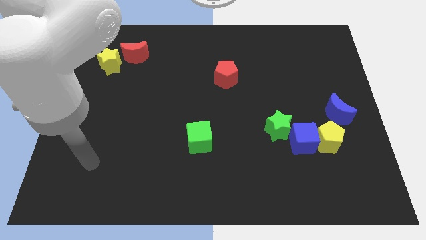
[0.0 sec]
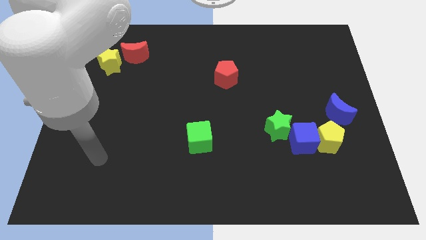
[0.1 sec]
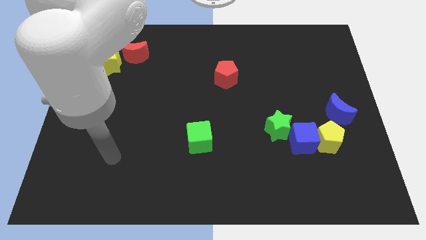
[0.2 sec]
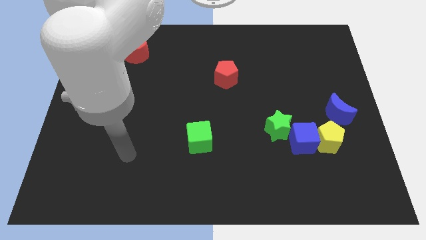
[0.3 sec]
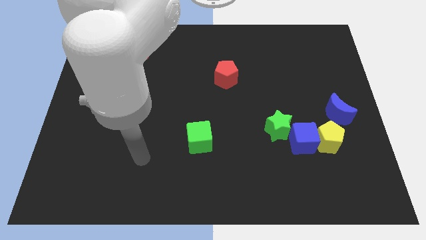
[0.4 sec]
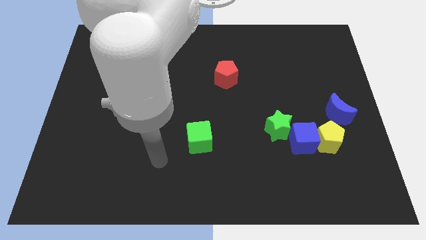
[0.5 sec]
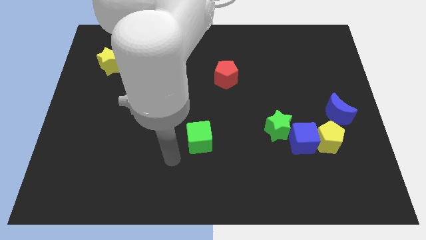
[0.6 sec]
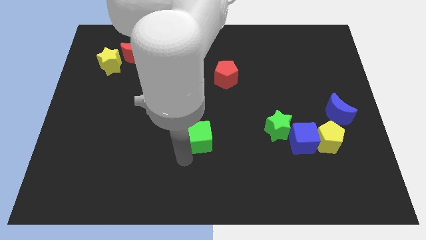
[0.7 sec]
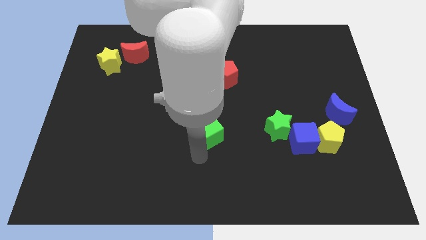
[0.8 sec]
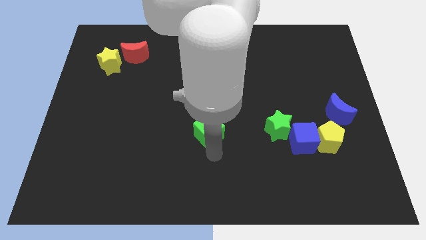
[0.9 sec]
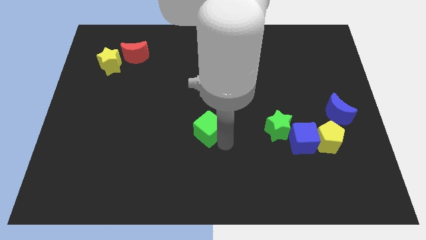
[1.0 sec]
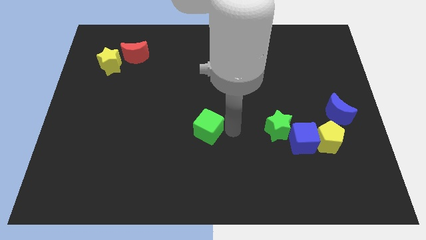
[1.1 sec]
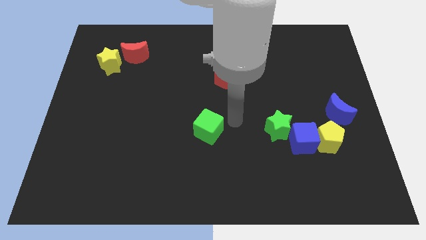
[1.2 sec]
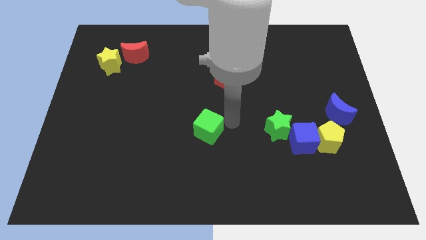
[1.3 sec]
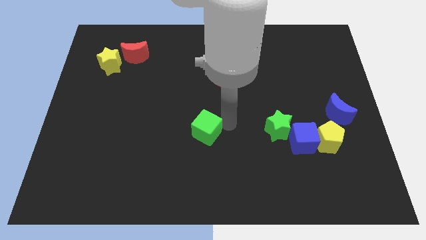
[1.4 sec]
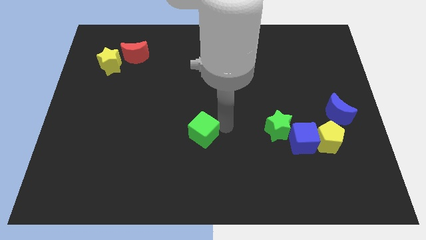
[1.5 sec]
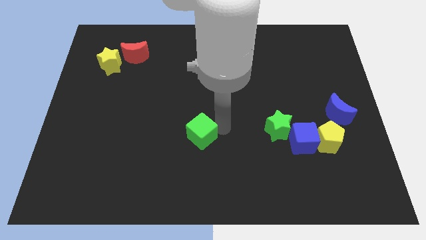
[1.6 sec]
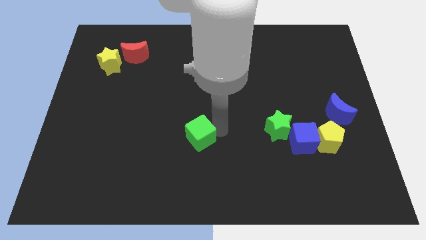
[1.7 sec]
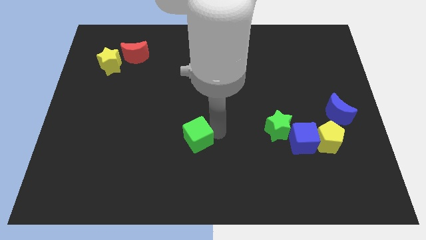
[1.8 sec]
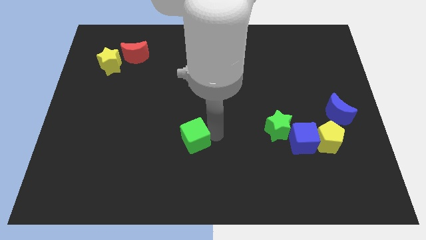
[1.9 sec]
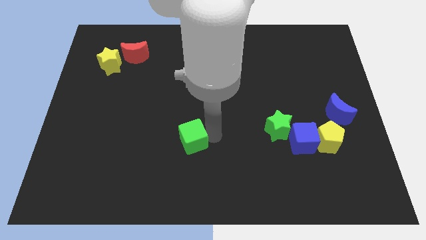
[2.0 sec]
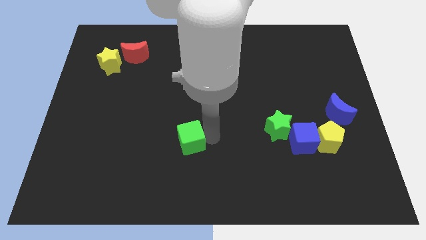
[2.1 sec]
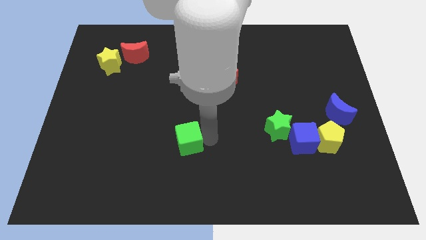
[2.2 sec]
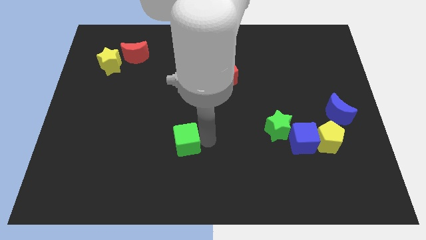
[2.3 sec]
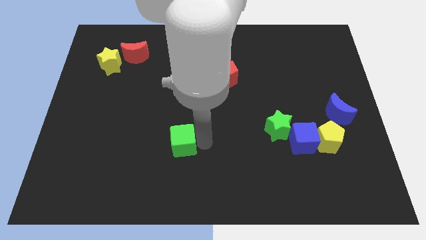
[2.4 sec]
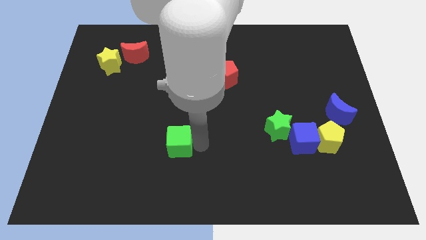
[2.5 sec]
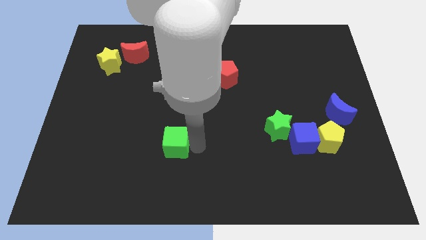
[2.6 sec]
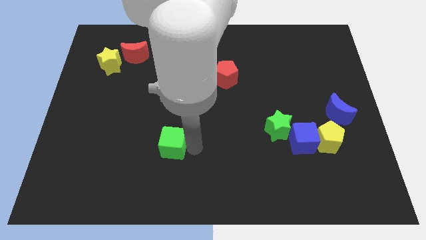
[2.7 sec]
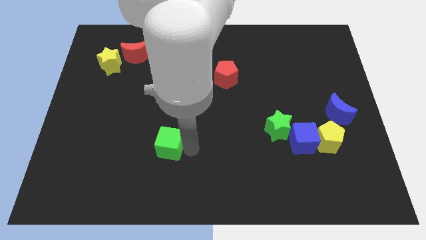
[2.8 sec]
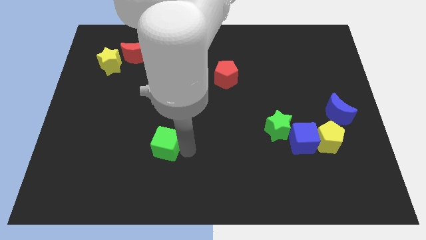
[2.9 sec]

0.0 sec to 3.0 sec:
slide the green cube a little left

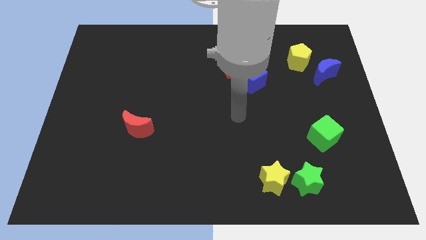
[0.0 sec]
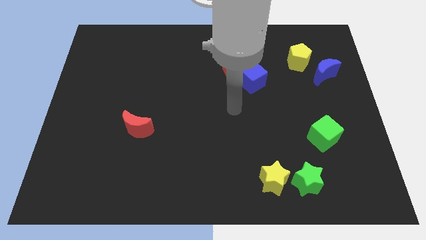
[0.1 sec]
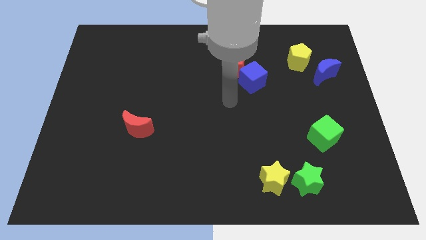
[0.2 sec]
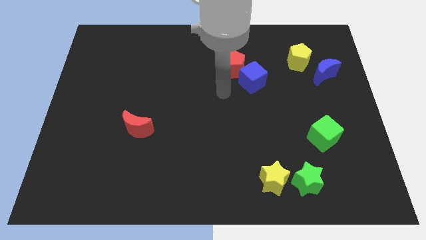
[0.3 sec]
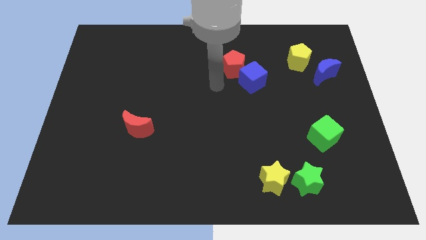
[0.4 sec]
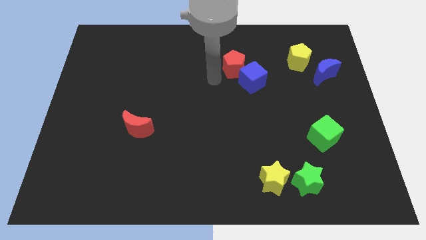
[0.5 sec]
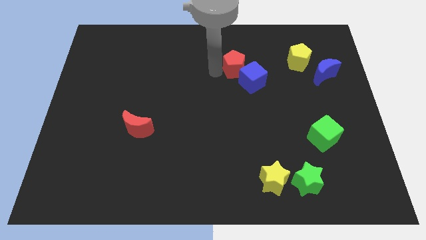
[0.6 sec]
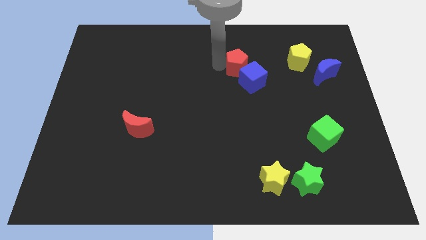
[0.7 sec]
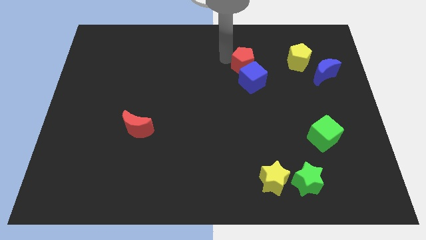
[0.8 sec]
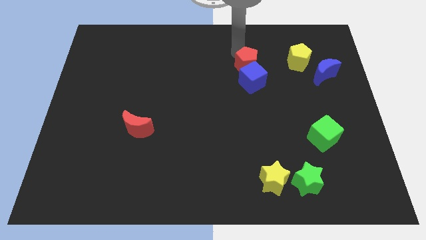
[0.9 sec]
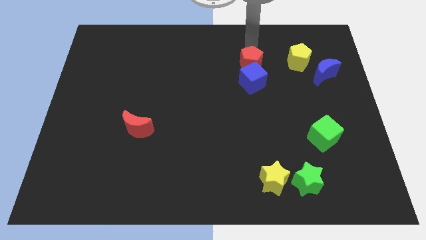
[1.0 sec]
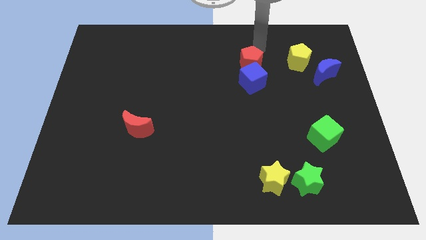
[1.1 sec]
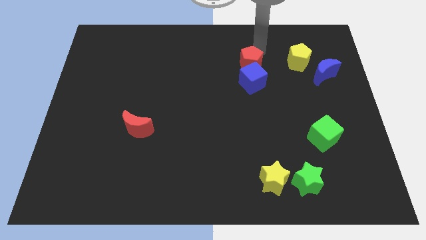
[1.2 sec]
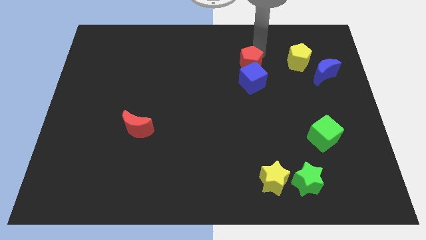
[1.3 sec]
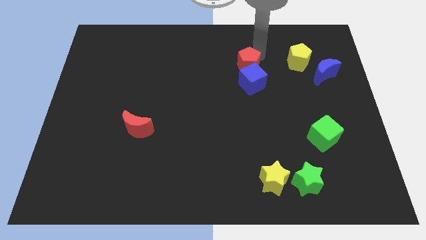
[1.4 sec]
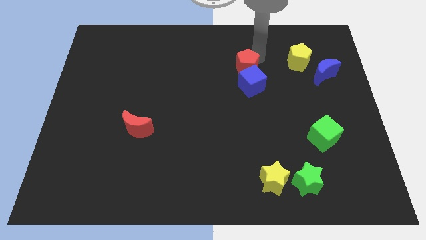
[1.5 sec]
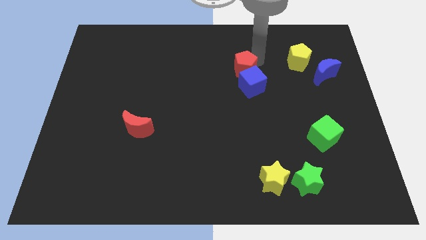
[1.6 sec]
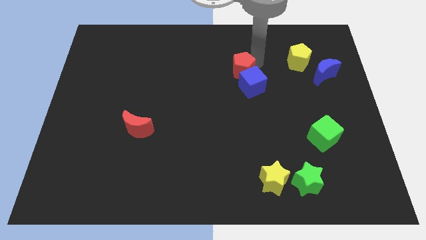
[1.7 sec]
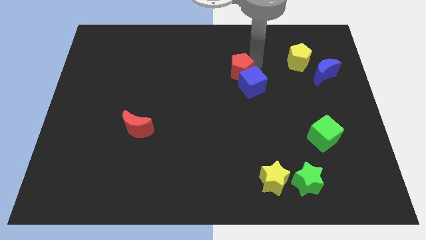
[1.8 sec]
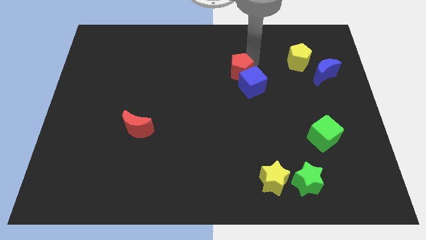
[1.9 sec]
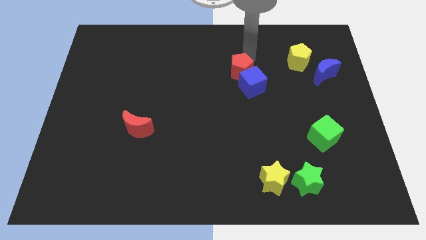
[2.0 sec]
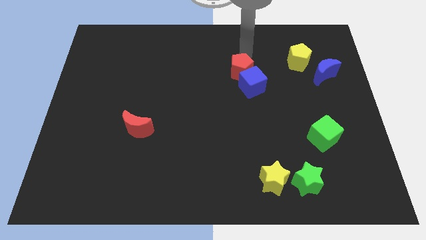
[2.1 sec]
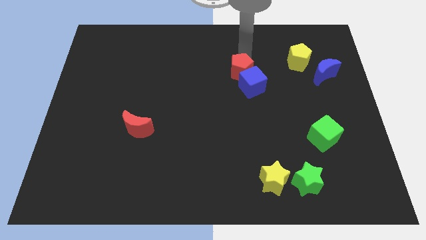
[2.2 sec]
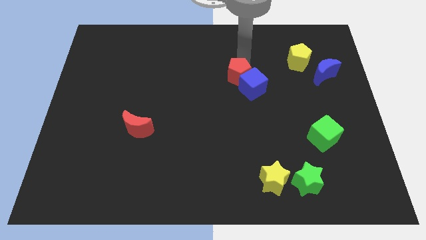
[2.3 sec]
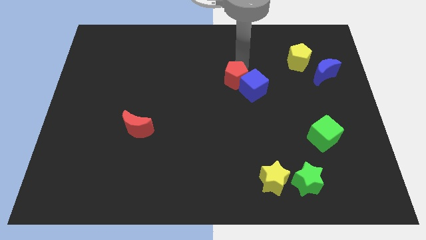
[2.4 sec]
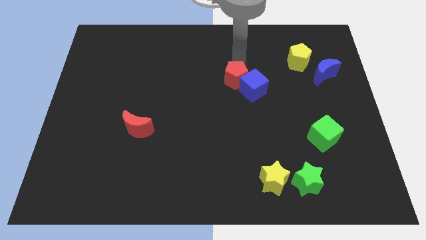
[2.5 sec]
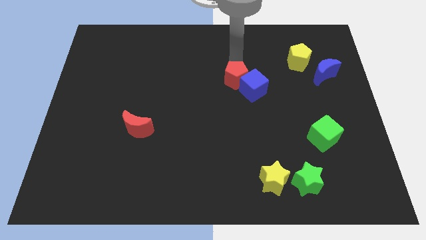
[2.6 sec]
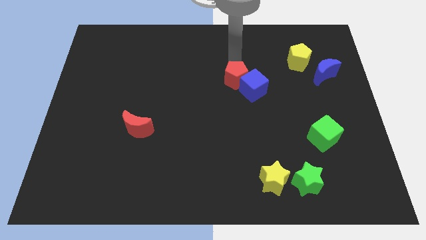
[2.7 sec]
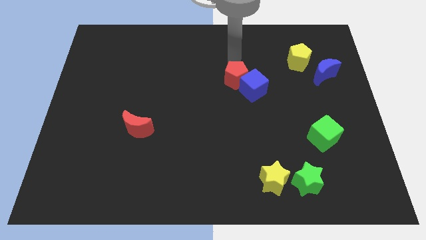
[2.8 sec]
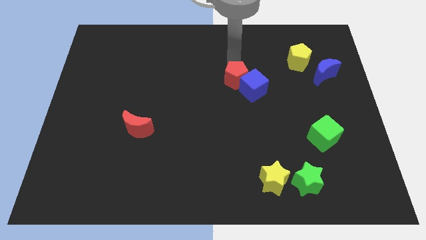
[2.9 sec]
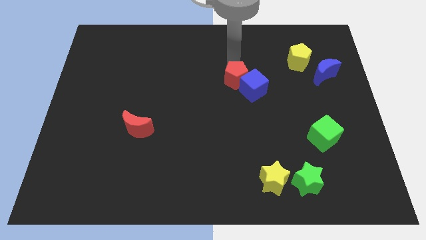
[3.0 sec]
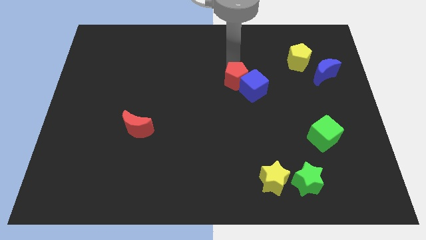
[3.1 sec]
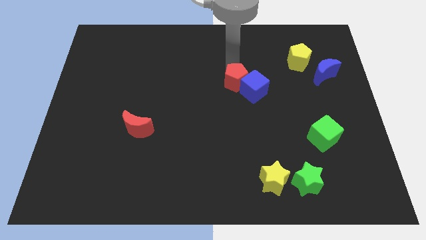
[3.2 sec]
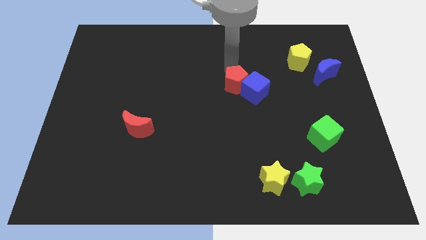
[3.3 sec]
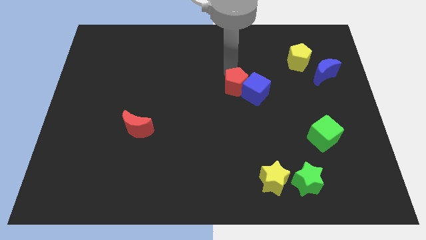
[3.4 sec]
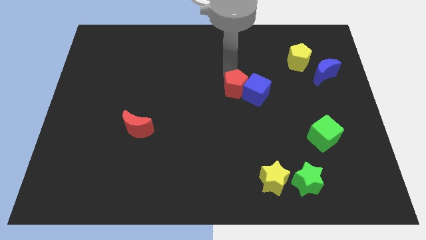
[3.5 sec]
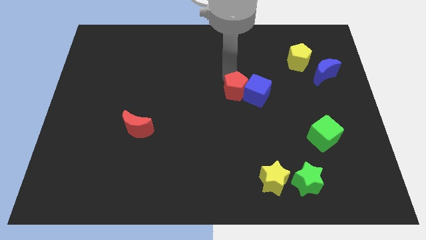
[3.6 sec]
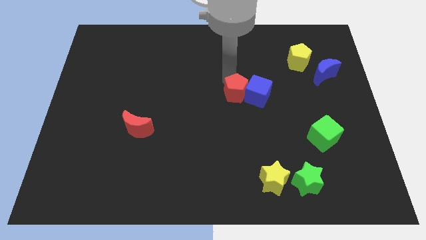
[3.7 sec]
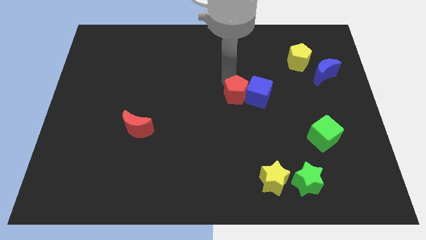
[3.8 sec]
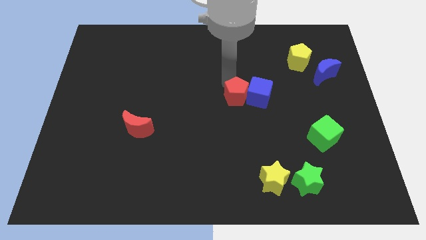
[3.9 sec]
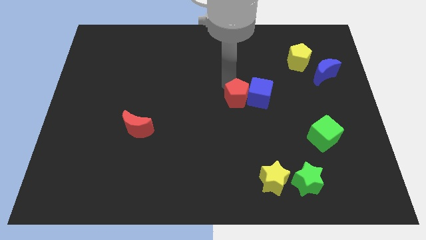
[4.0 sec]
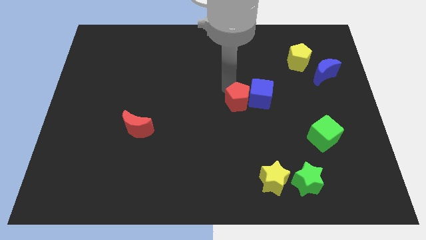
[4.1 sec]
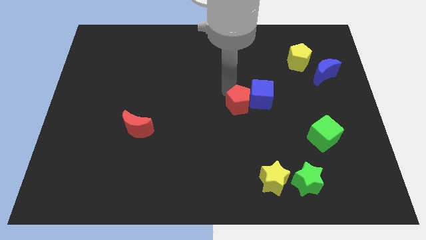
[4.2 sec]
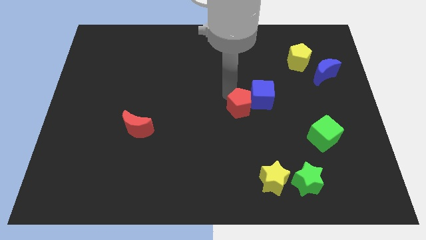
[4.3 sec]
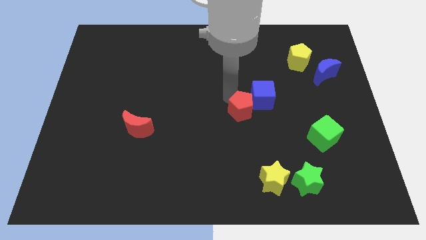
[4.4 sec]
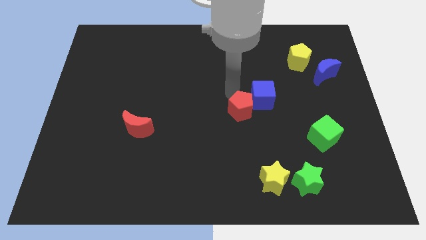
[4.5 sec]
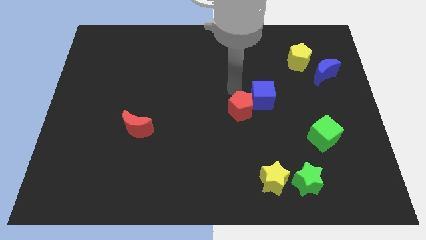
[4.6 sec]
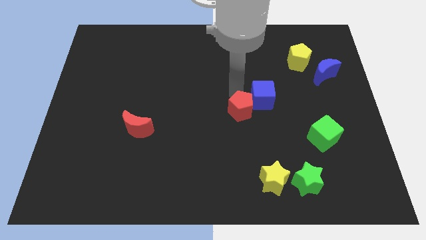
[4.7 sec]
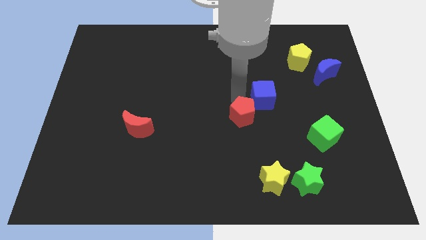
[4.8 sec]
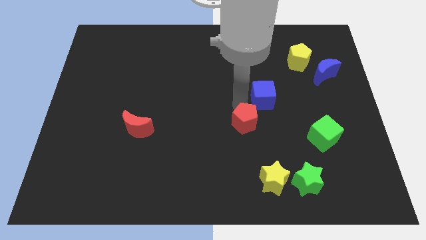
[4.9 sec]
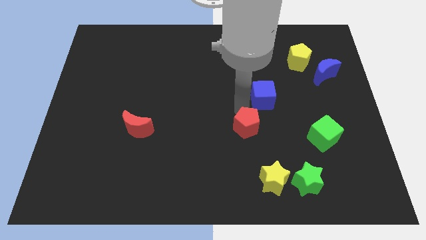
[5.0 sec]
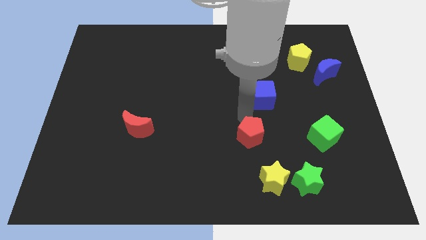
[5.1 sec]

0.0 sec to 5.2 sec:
move the red pentagon downwards
